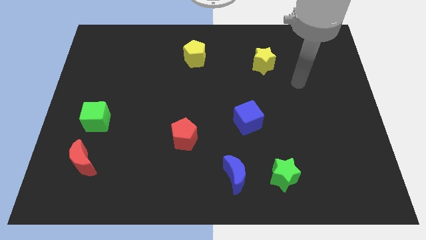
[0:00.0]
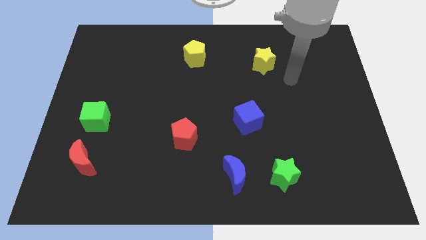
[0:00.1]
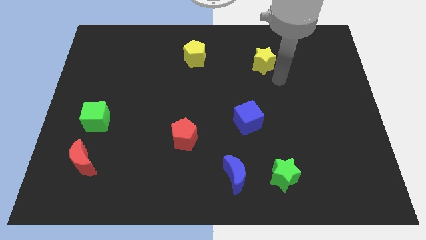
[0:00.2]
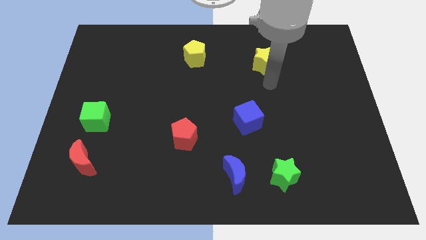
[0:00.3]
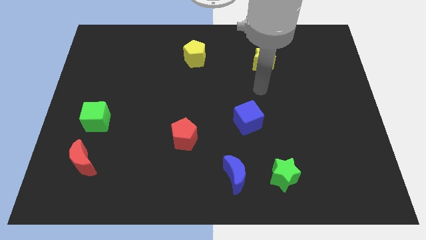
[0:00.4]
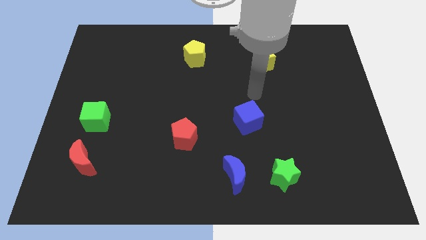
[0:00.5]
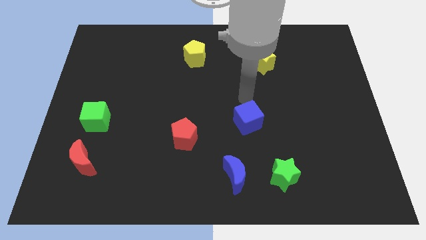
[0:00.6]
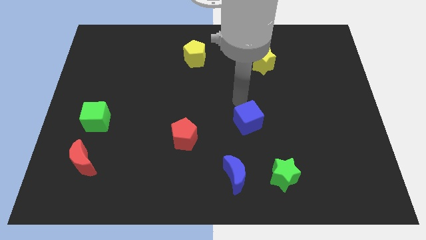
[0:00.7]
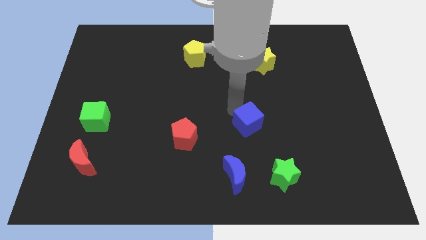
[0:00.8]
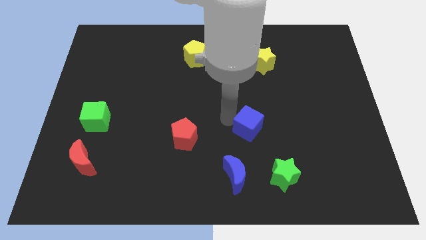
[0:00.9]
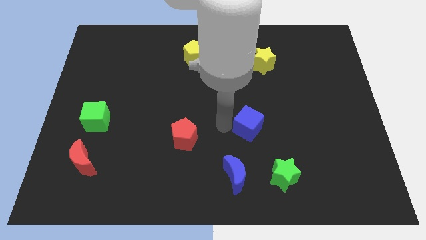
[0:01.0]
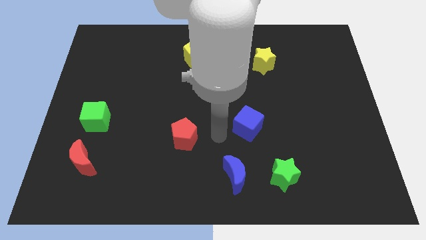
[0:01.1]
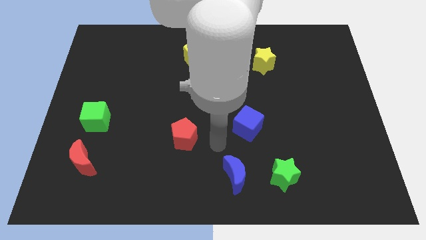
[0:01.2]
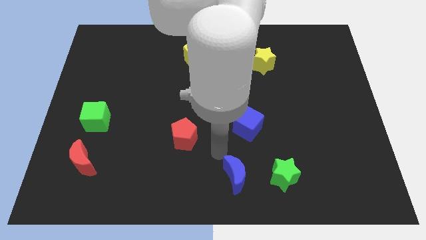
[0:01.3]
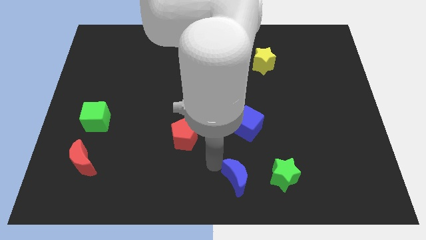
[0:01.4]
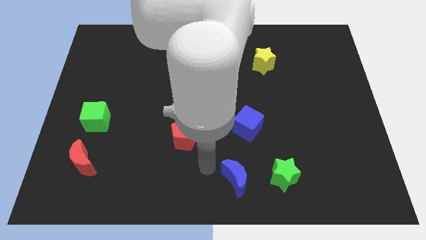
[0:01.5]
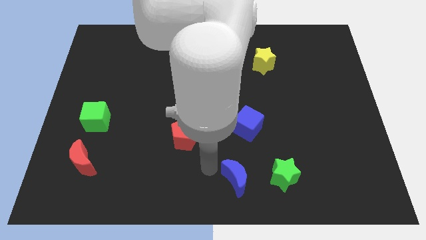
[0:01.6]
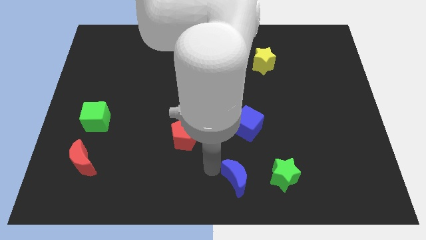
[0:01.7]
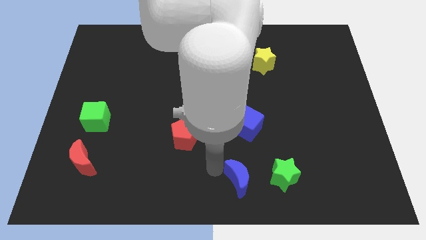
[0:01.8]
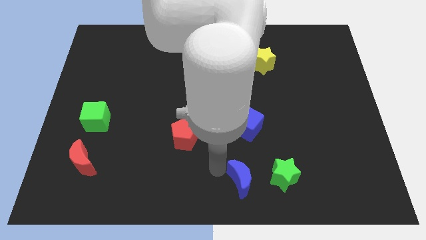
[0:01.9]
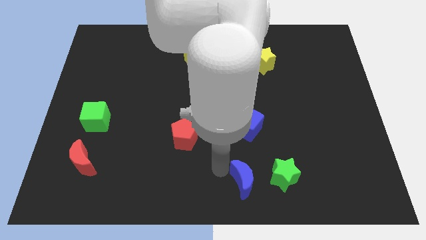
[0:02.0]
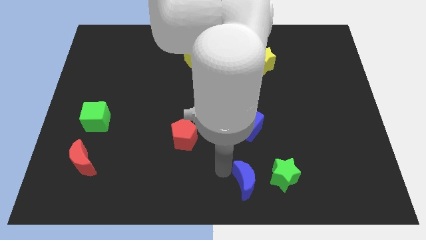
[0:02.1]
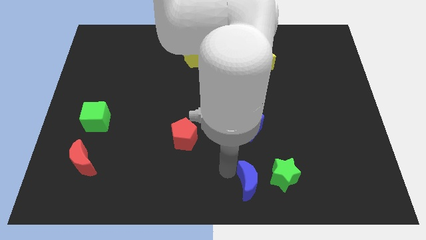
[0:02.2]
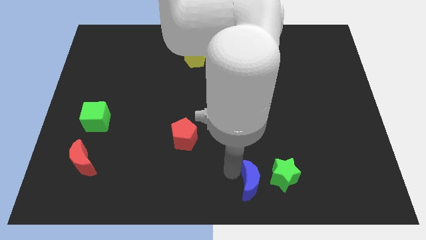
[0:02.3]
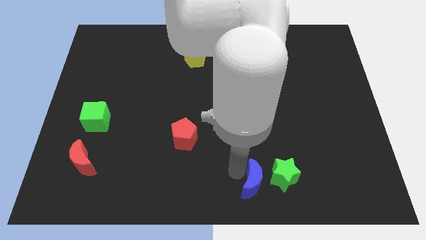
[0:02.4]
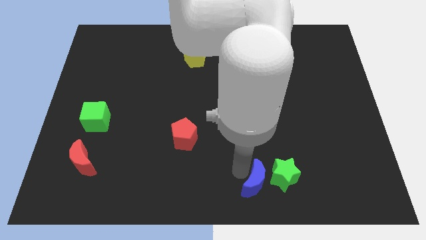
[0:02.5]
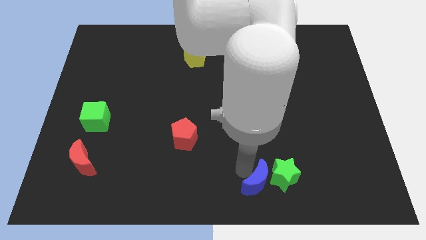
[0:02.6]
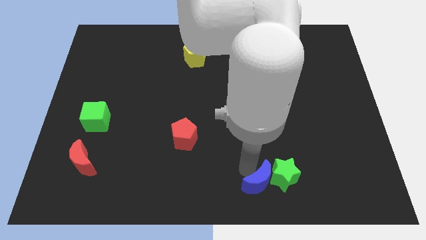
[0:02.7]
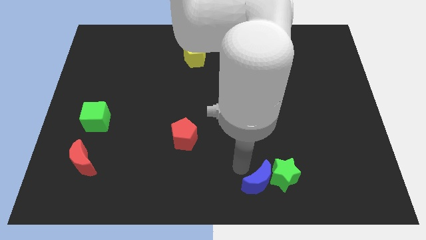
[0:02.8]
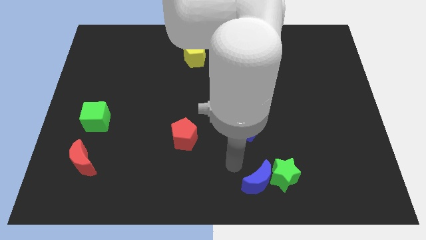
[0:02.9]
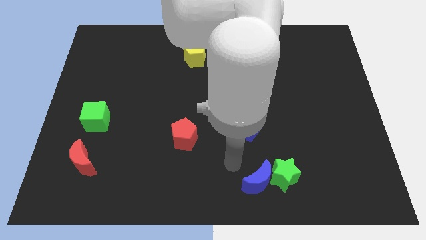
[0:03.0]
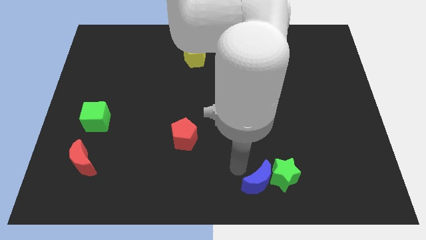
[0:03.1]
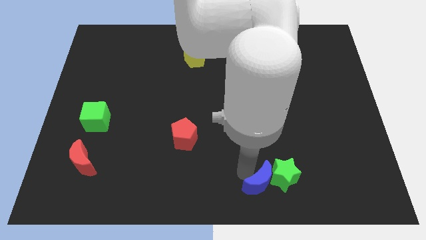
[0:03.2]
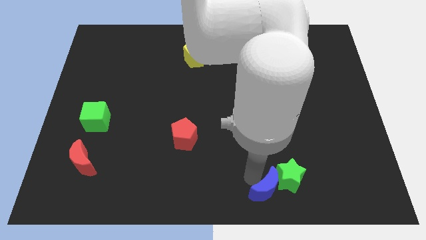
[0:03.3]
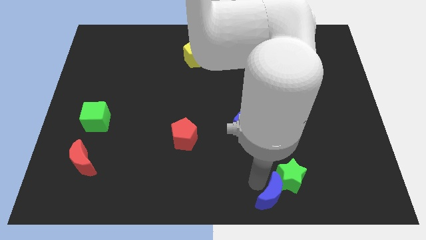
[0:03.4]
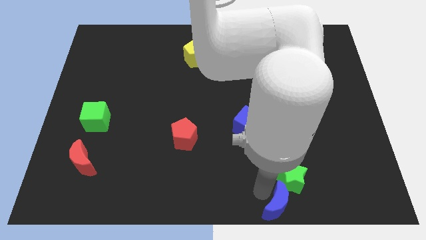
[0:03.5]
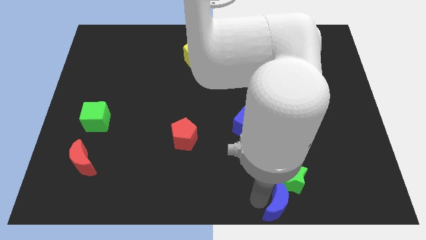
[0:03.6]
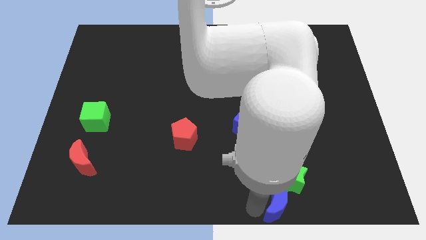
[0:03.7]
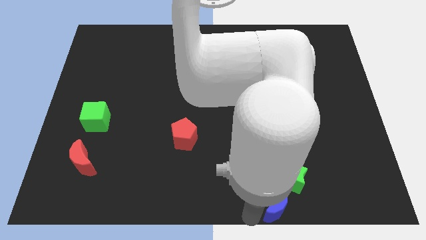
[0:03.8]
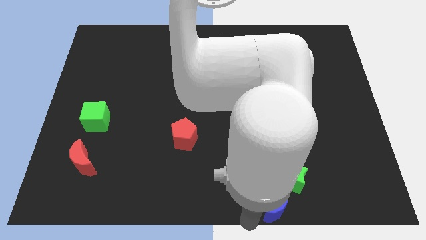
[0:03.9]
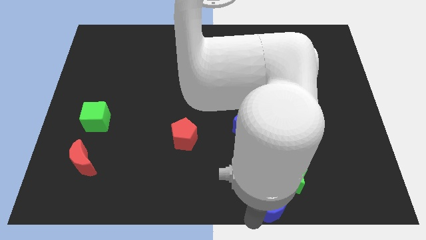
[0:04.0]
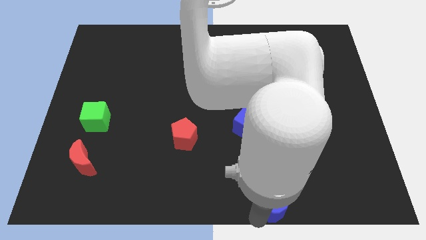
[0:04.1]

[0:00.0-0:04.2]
slightly push the blue moon to the right

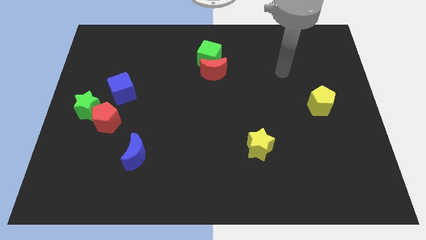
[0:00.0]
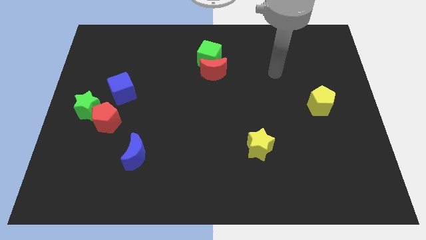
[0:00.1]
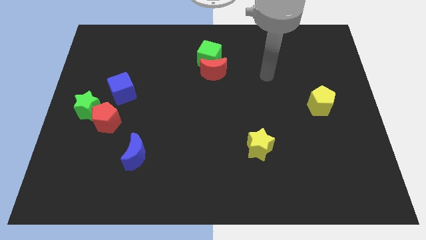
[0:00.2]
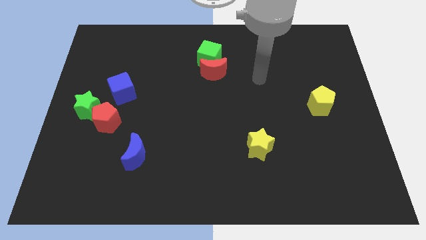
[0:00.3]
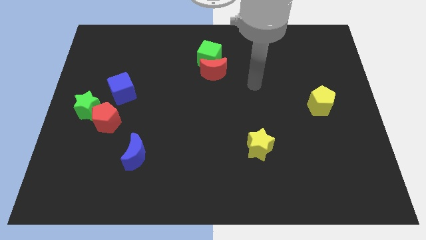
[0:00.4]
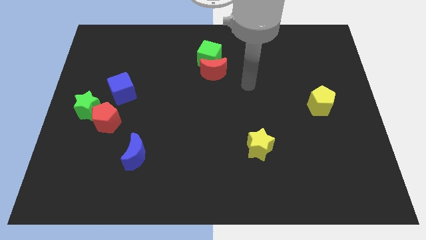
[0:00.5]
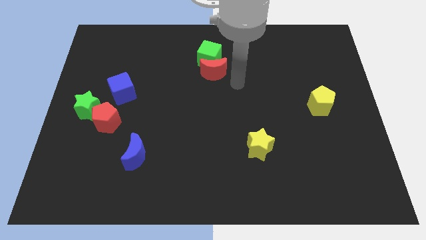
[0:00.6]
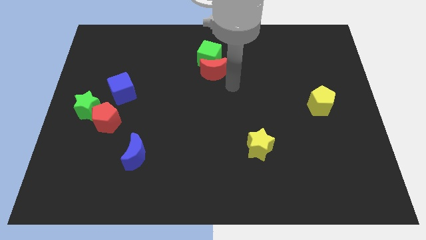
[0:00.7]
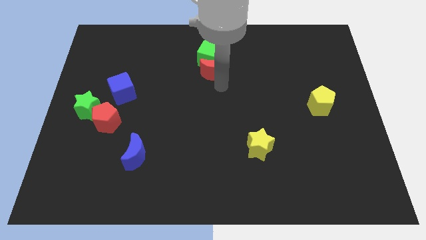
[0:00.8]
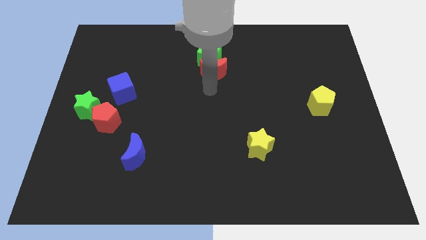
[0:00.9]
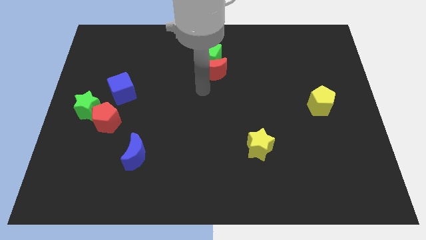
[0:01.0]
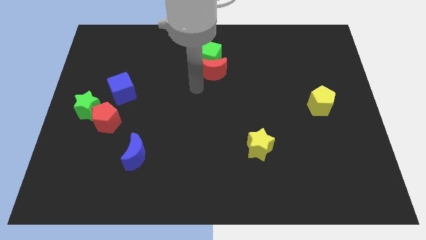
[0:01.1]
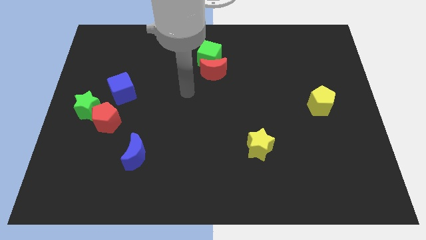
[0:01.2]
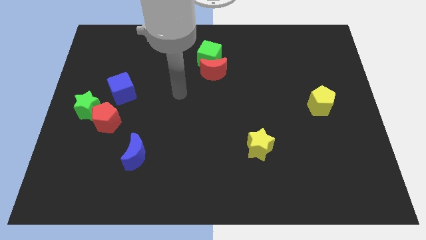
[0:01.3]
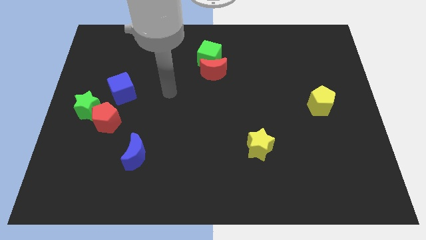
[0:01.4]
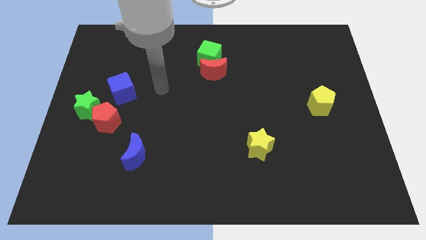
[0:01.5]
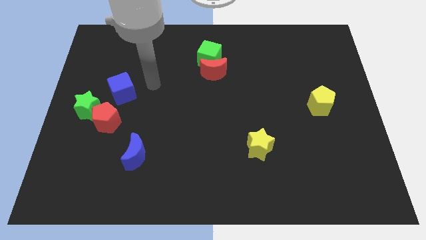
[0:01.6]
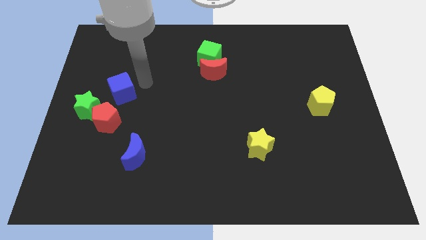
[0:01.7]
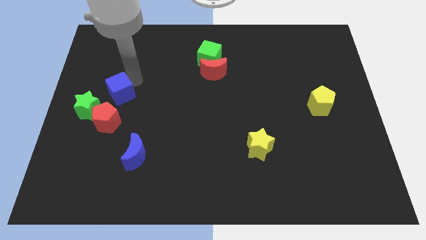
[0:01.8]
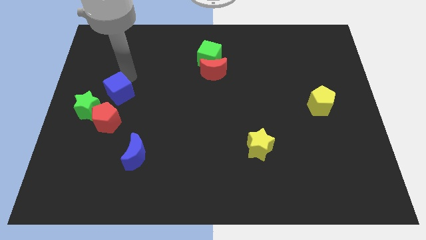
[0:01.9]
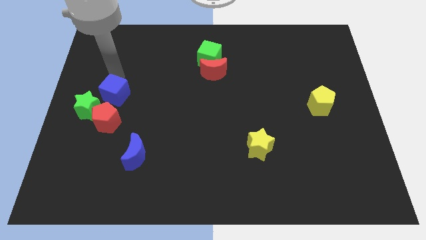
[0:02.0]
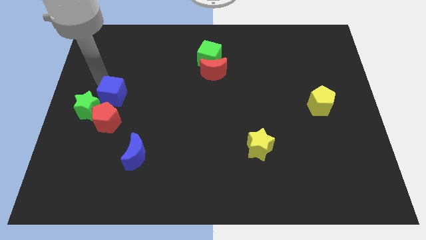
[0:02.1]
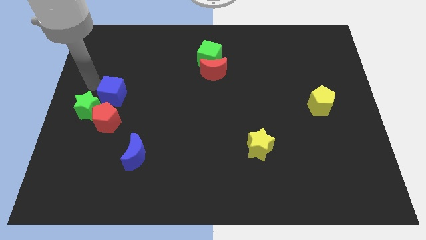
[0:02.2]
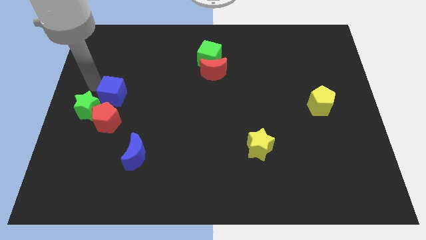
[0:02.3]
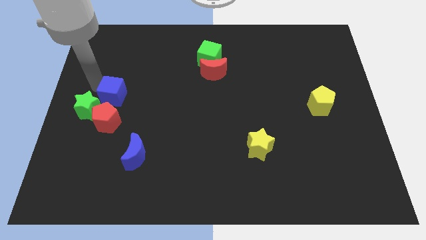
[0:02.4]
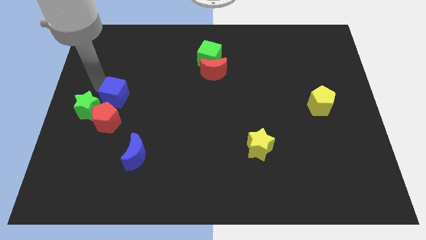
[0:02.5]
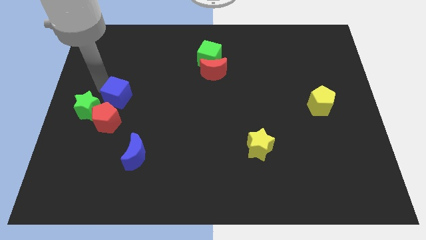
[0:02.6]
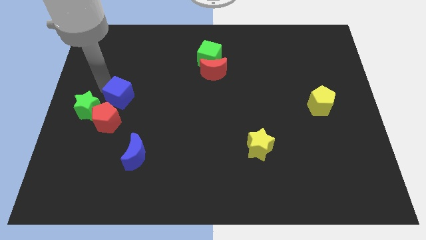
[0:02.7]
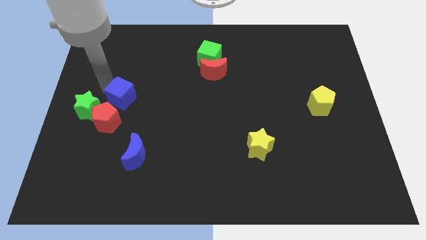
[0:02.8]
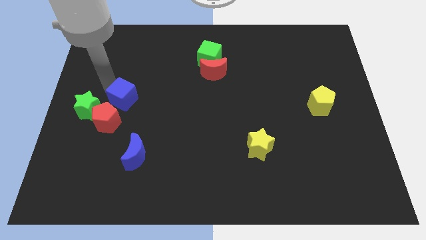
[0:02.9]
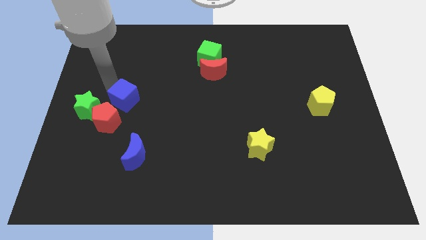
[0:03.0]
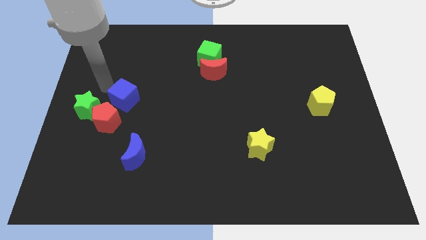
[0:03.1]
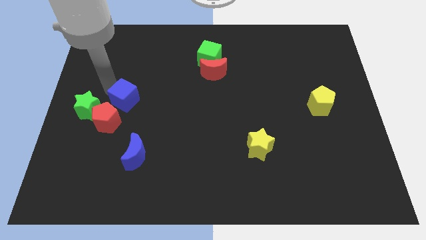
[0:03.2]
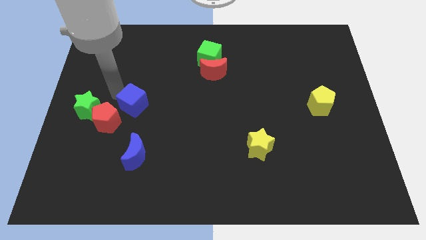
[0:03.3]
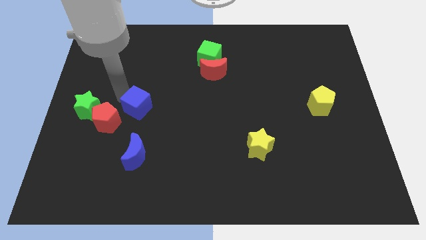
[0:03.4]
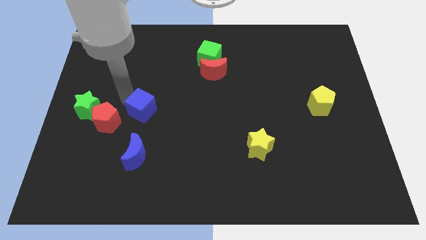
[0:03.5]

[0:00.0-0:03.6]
slightly slide the blue cube down and to the right diagonally
